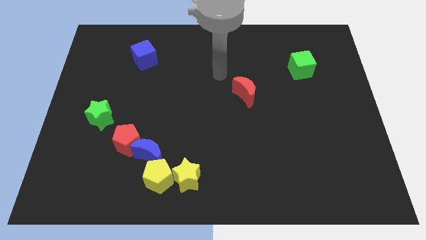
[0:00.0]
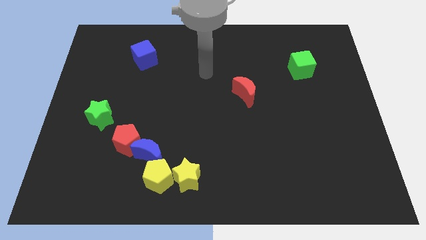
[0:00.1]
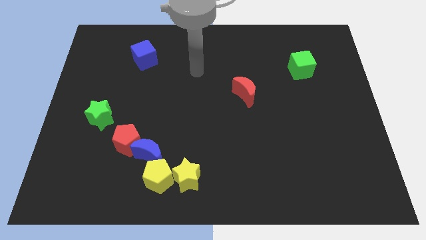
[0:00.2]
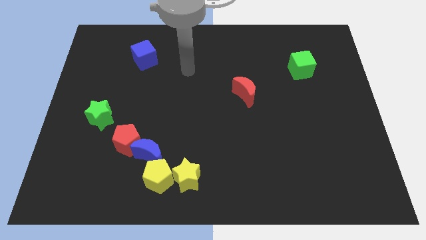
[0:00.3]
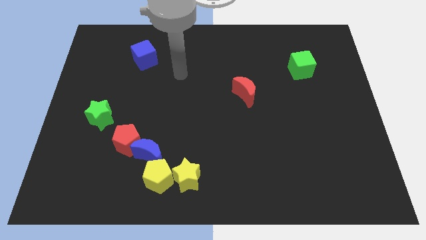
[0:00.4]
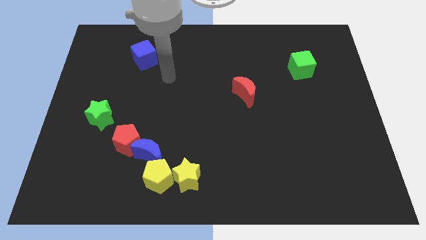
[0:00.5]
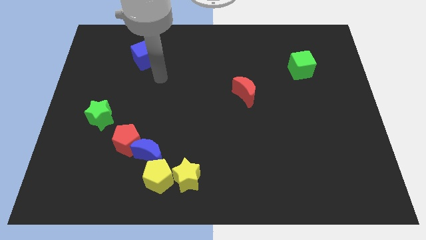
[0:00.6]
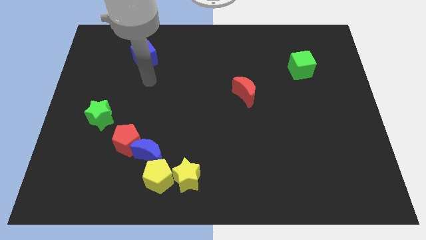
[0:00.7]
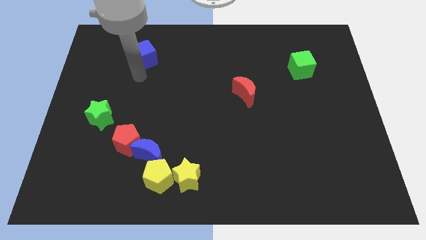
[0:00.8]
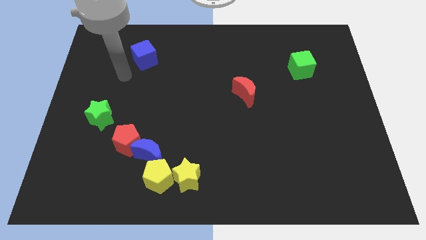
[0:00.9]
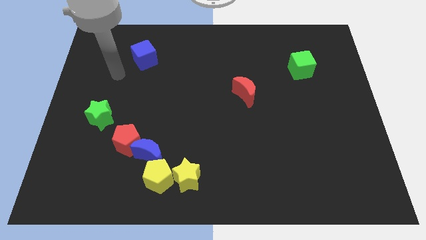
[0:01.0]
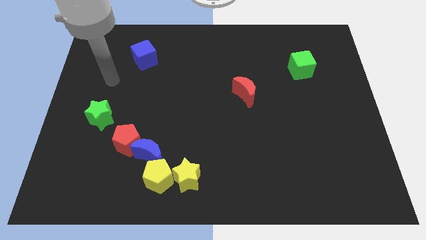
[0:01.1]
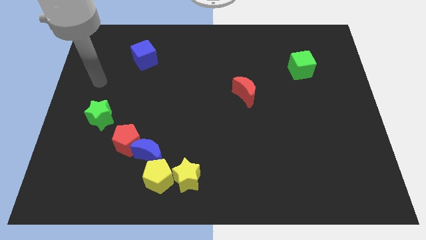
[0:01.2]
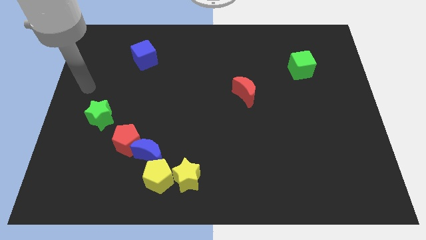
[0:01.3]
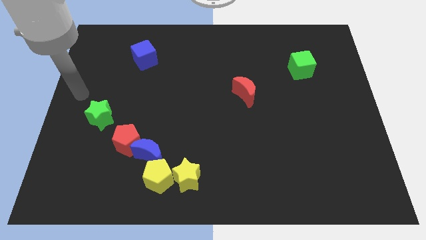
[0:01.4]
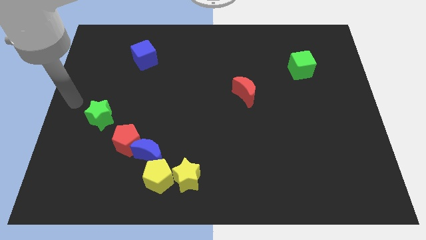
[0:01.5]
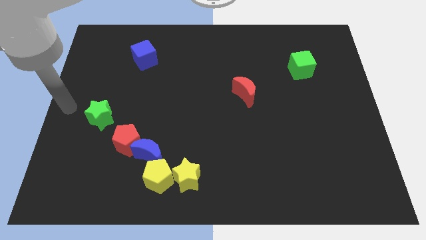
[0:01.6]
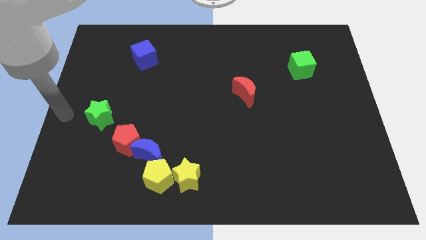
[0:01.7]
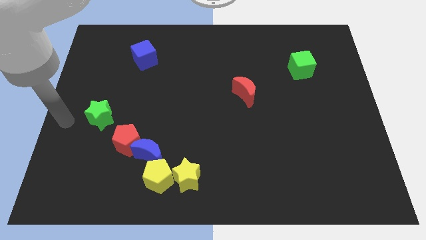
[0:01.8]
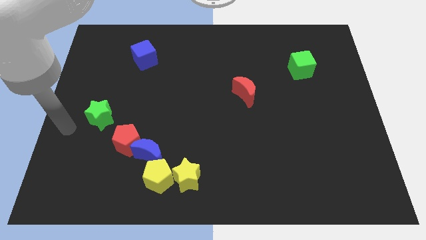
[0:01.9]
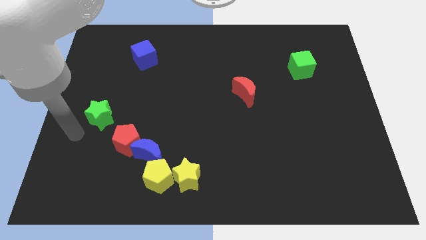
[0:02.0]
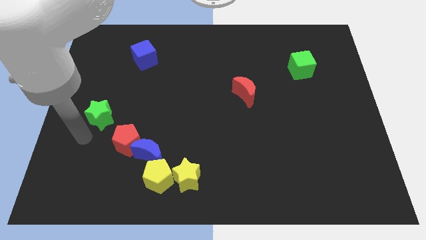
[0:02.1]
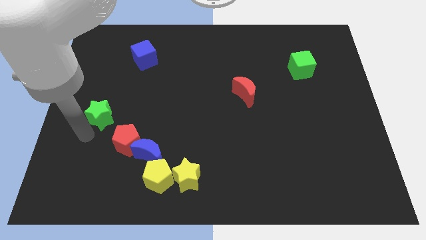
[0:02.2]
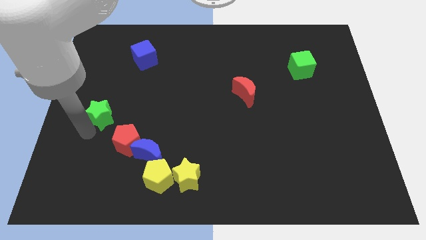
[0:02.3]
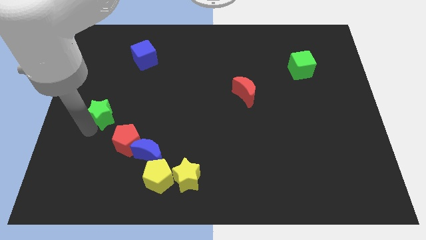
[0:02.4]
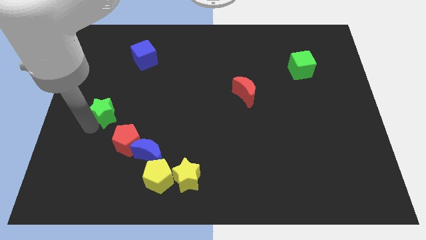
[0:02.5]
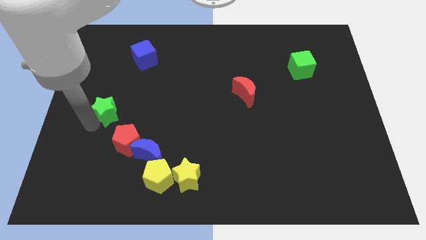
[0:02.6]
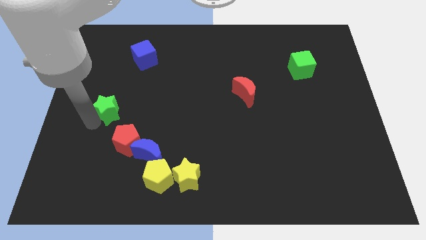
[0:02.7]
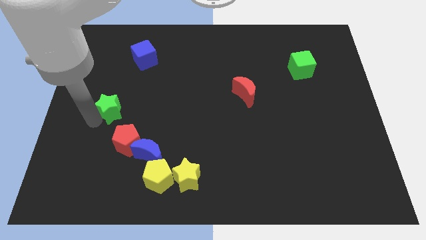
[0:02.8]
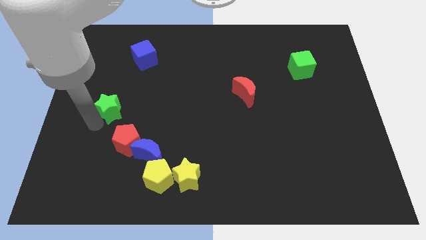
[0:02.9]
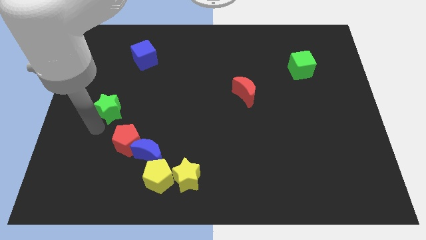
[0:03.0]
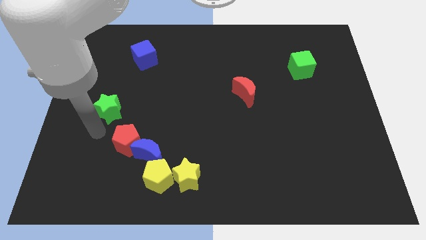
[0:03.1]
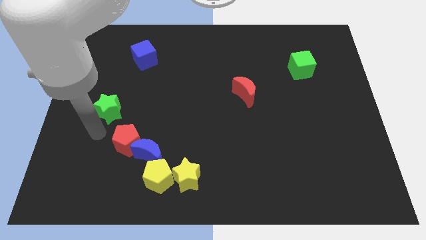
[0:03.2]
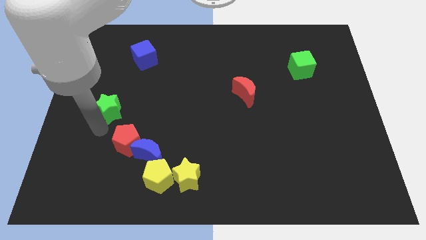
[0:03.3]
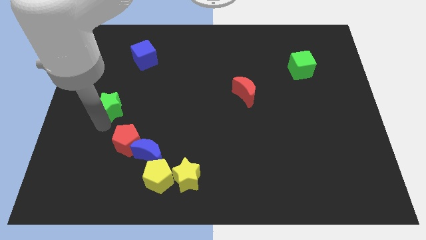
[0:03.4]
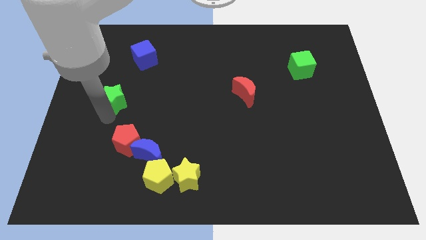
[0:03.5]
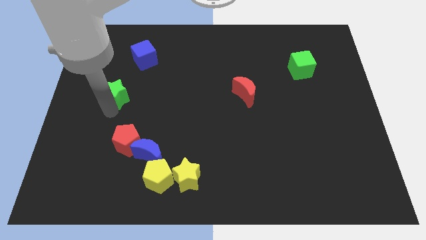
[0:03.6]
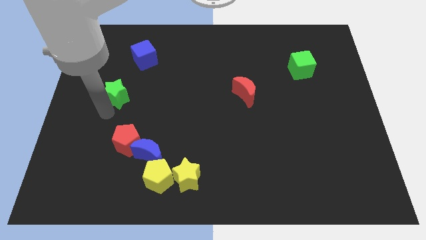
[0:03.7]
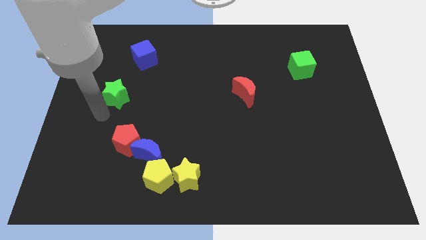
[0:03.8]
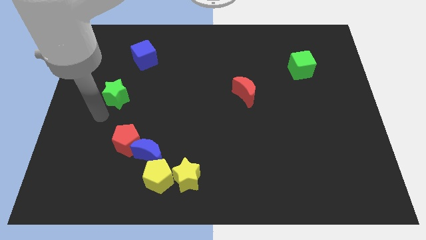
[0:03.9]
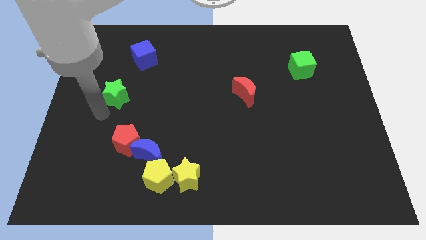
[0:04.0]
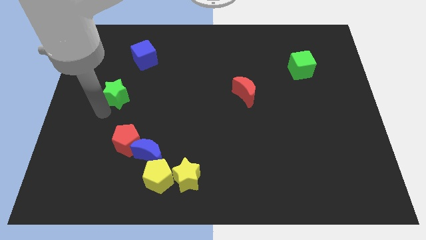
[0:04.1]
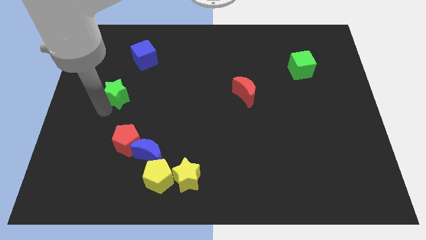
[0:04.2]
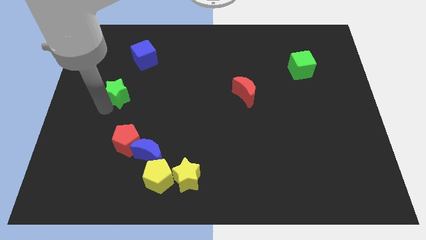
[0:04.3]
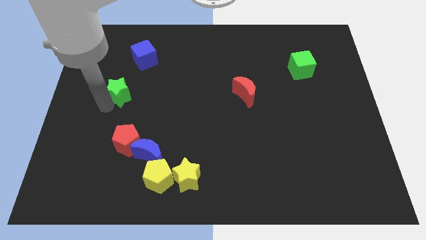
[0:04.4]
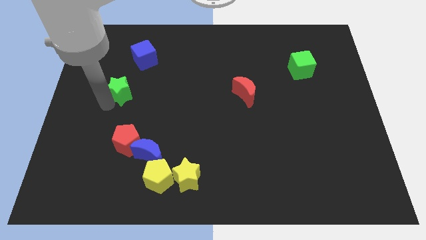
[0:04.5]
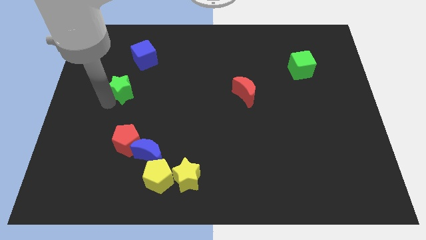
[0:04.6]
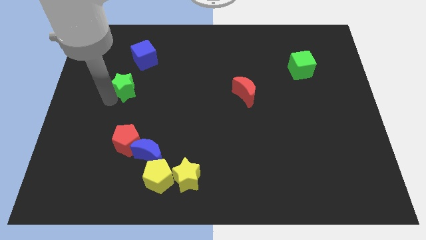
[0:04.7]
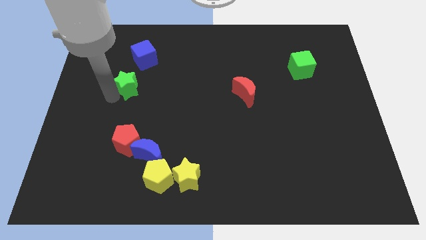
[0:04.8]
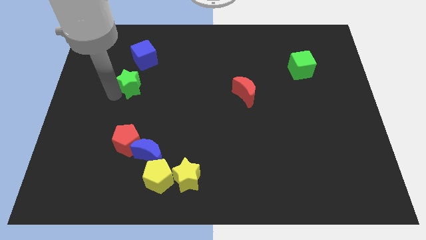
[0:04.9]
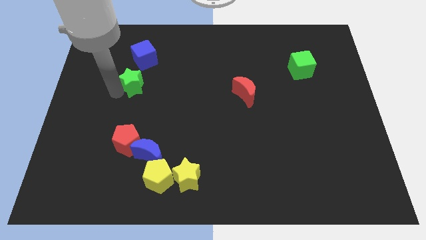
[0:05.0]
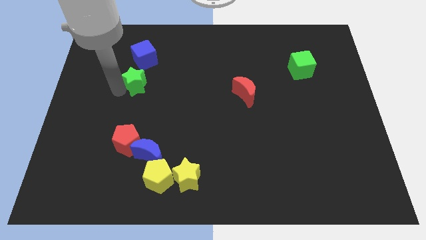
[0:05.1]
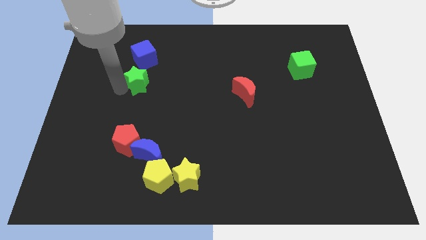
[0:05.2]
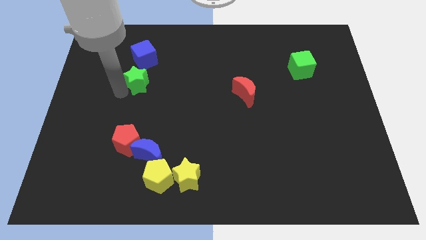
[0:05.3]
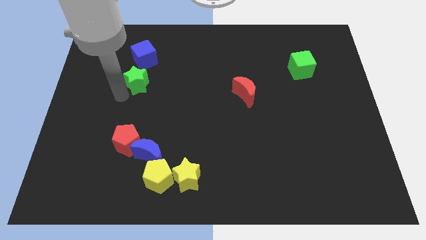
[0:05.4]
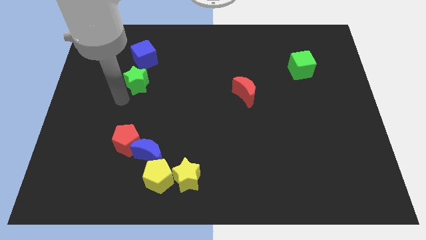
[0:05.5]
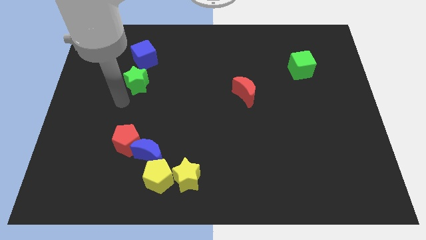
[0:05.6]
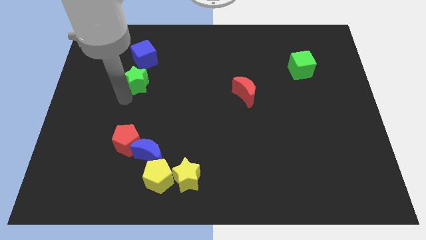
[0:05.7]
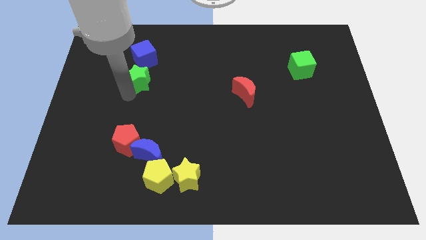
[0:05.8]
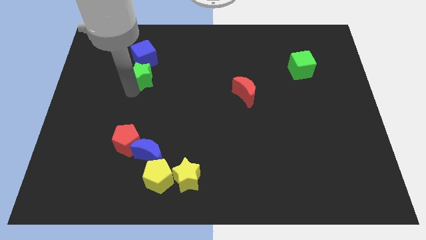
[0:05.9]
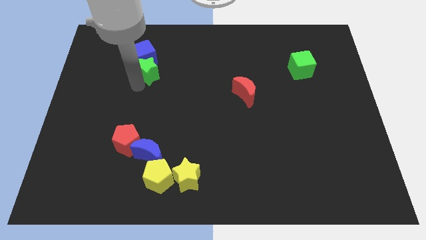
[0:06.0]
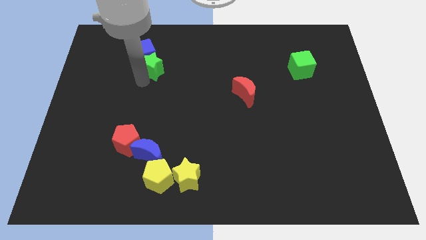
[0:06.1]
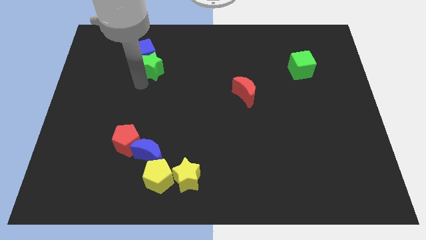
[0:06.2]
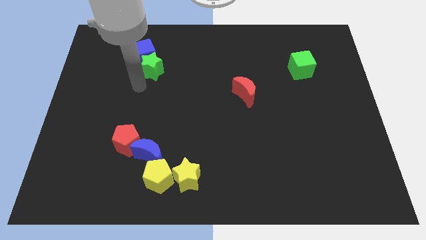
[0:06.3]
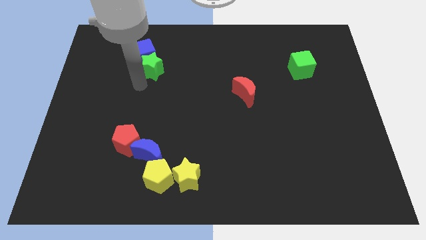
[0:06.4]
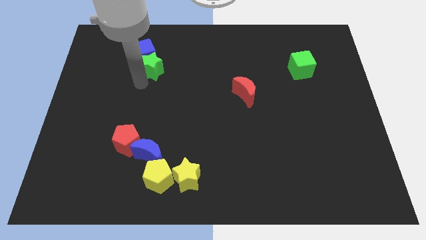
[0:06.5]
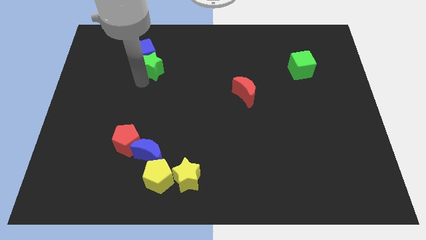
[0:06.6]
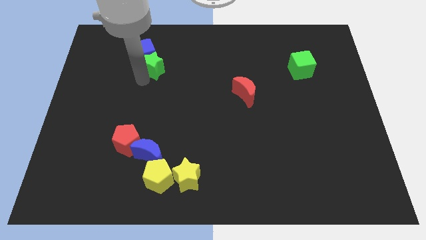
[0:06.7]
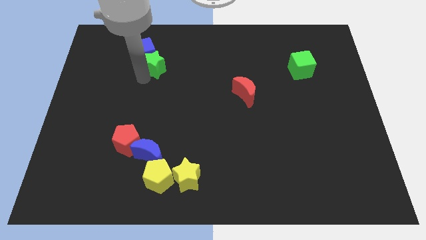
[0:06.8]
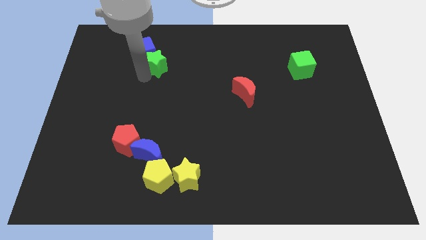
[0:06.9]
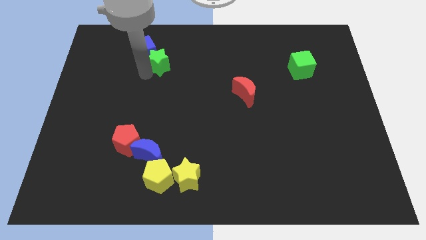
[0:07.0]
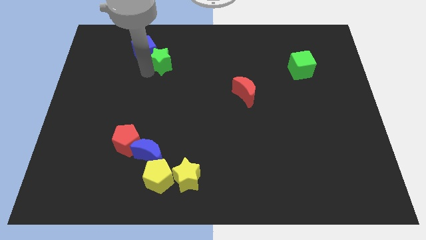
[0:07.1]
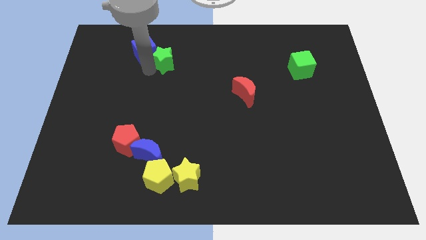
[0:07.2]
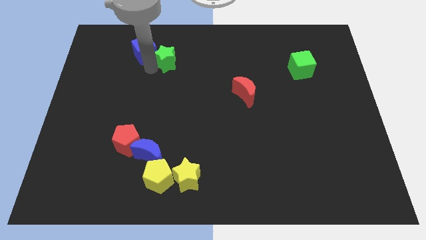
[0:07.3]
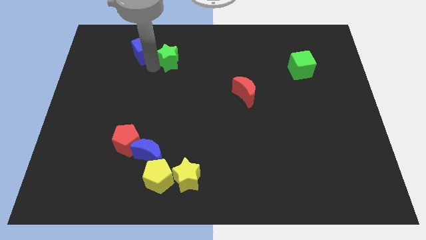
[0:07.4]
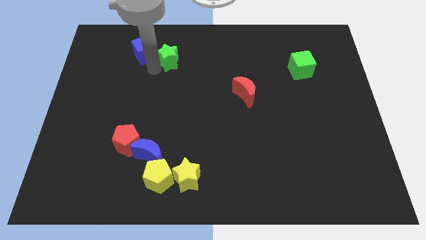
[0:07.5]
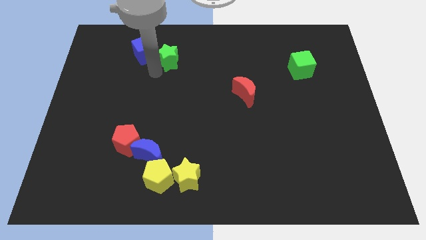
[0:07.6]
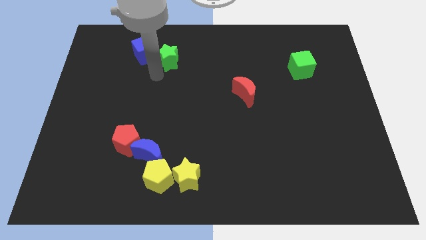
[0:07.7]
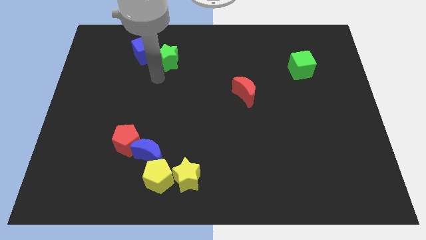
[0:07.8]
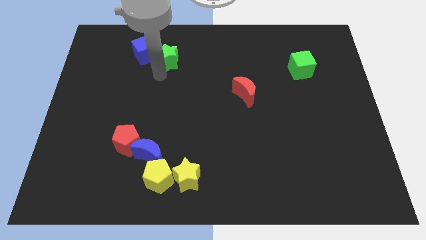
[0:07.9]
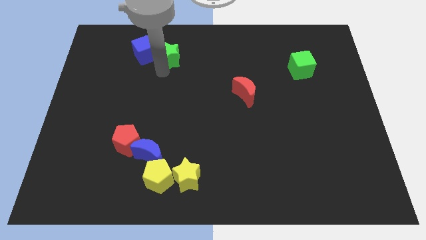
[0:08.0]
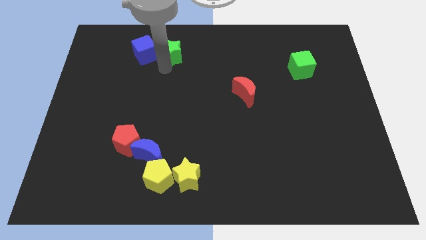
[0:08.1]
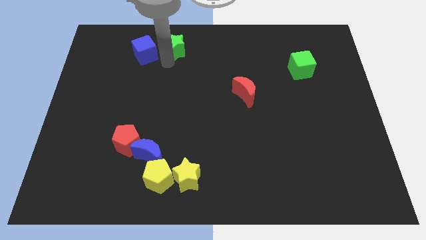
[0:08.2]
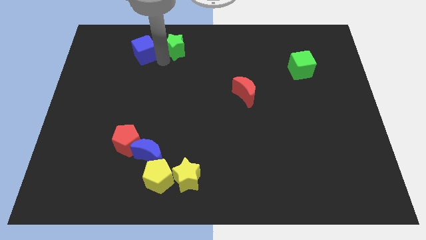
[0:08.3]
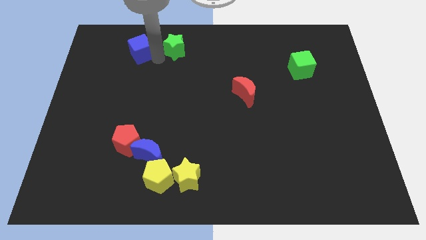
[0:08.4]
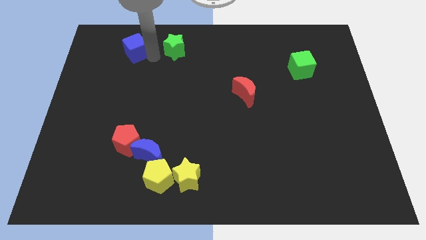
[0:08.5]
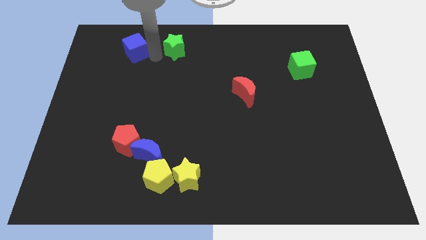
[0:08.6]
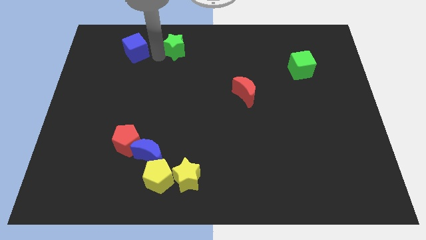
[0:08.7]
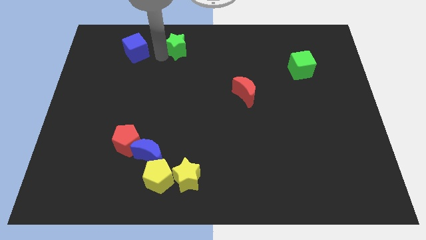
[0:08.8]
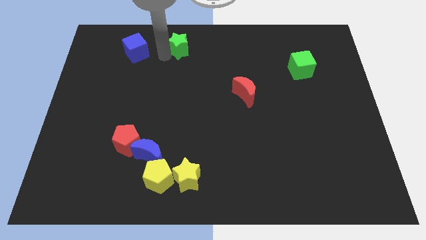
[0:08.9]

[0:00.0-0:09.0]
move the green star to the towards your base
